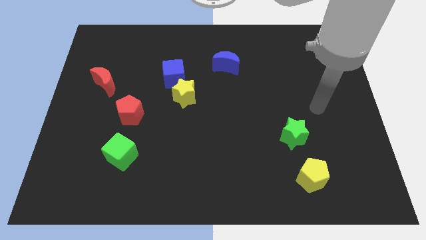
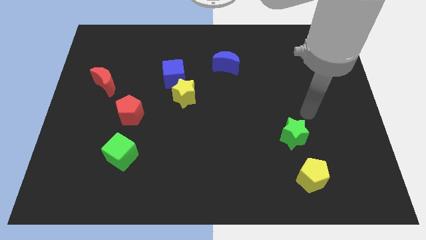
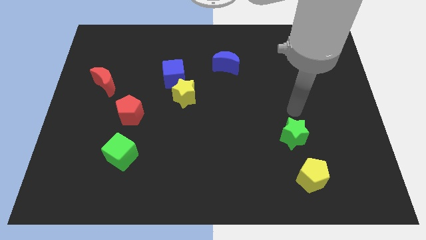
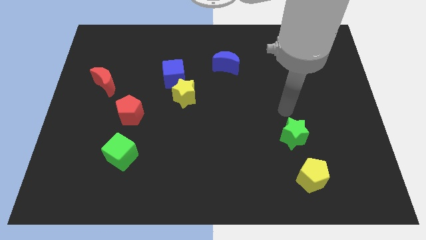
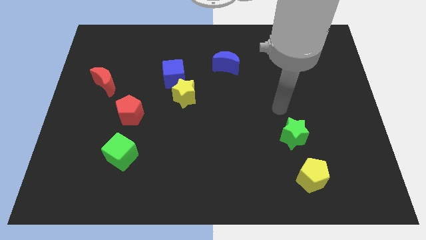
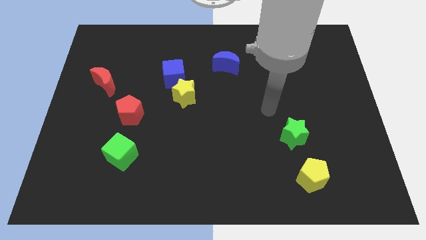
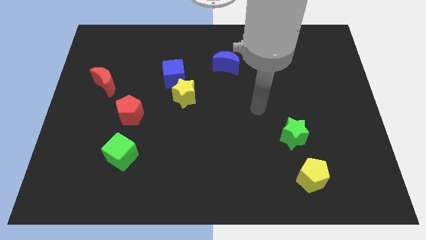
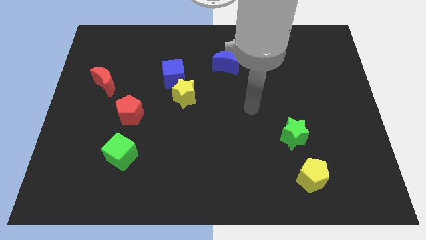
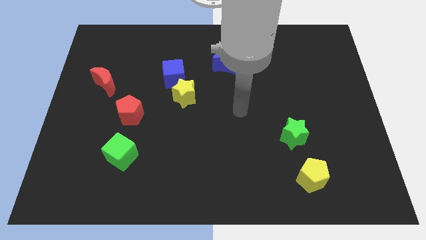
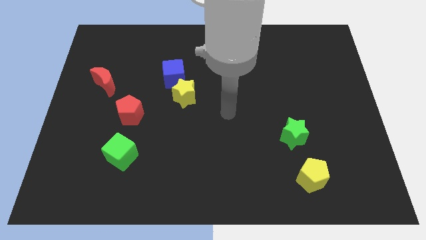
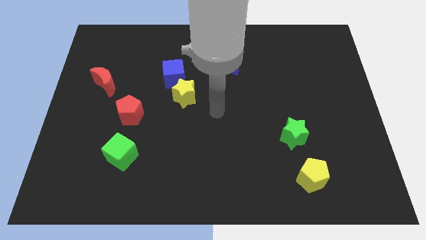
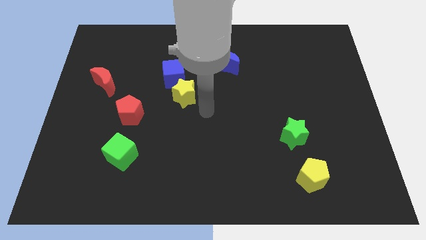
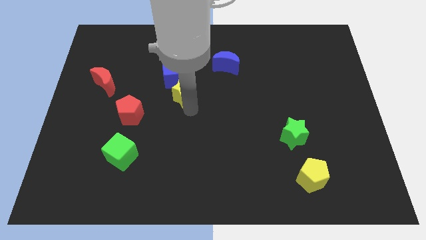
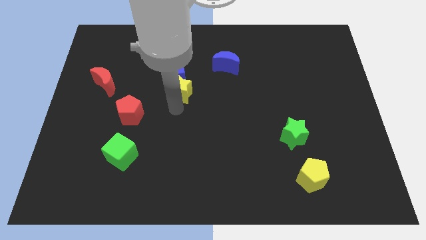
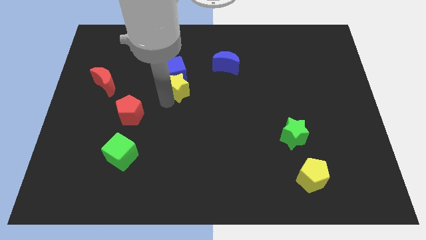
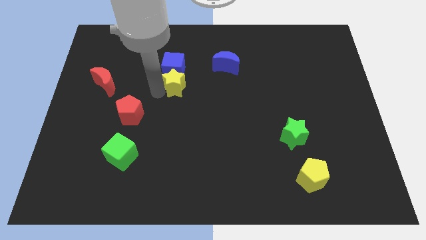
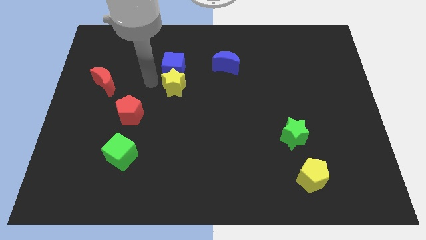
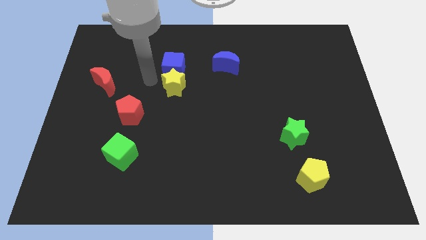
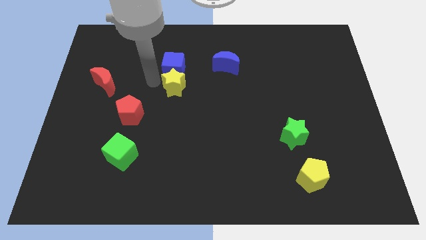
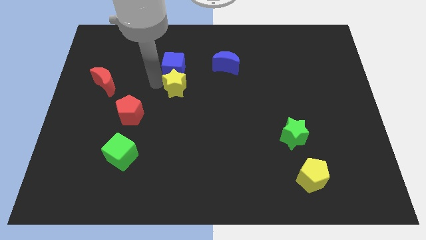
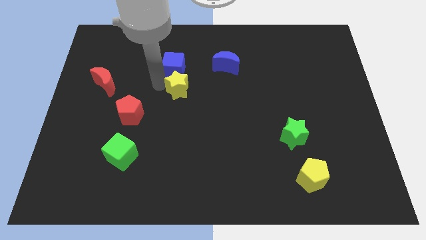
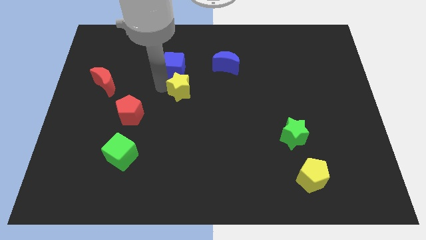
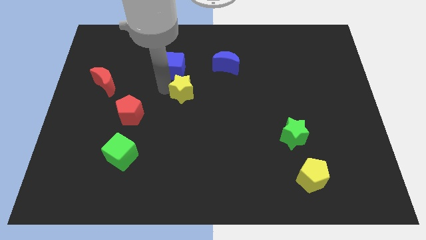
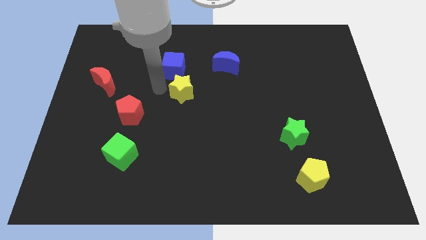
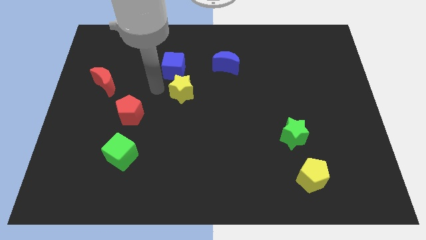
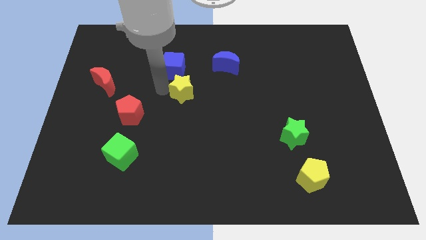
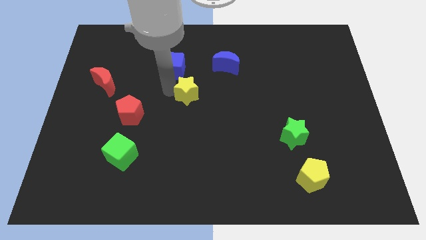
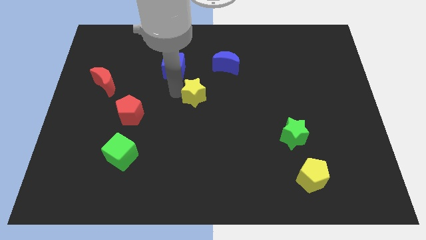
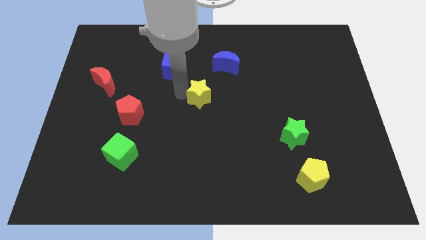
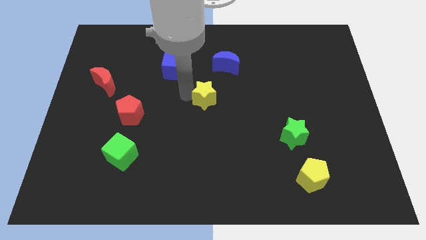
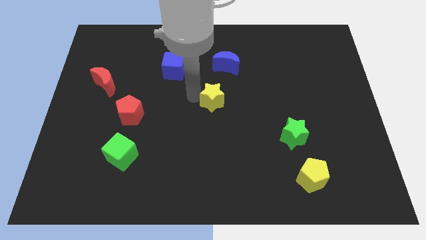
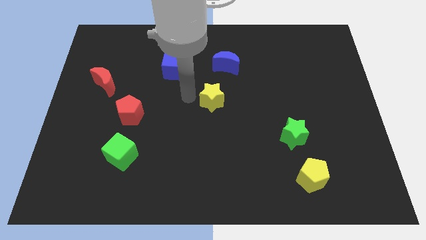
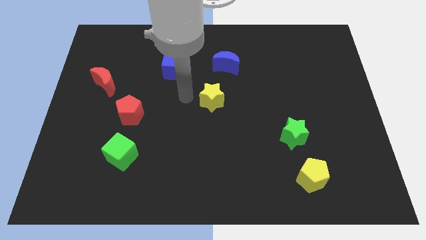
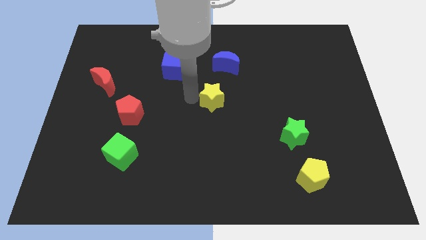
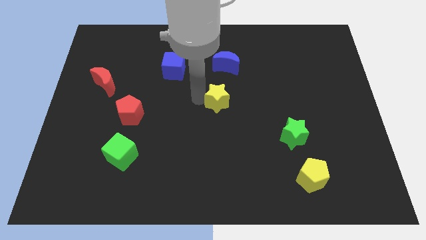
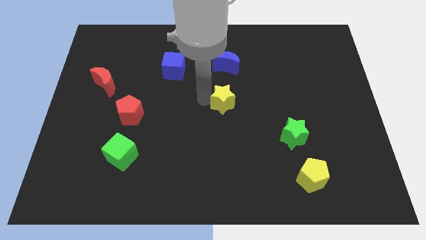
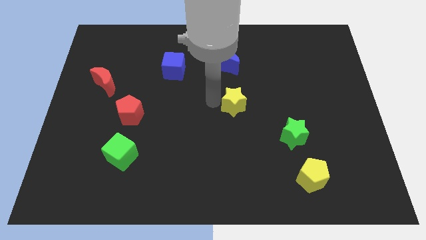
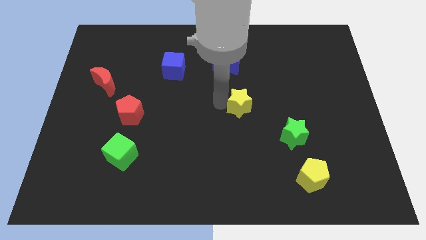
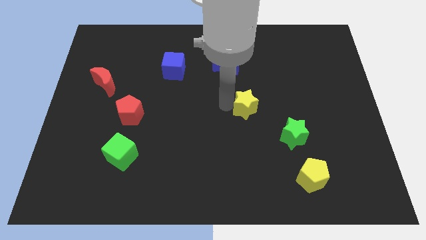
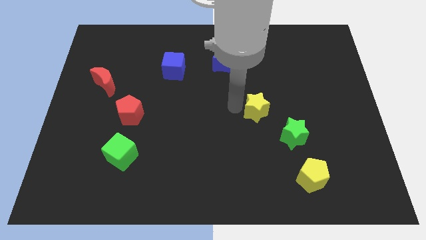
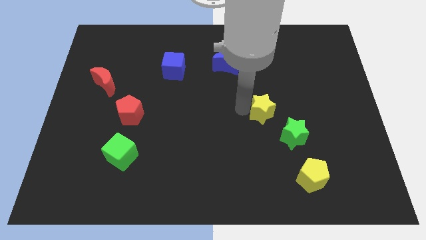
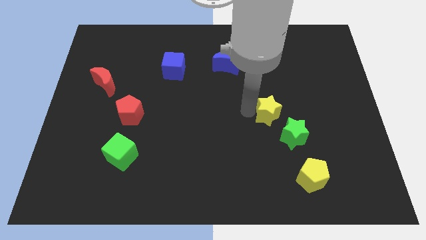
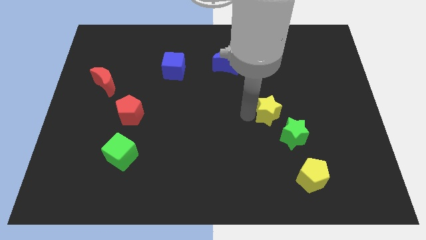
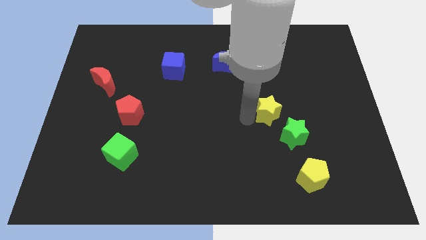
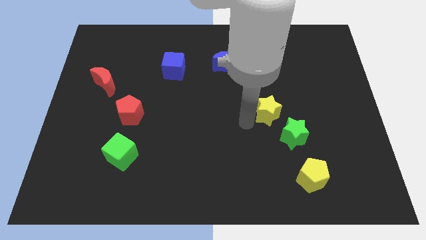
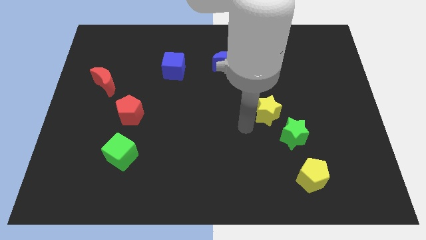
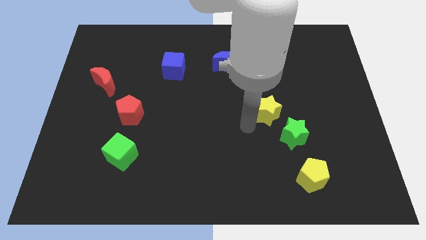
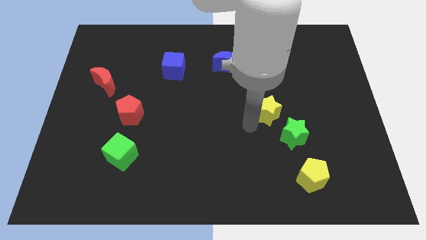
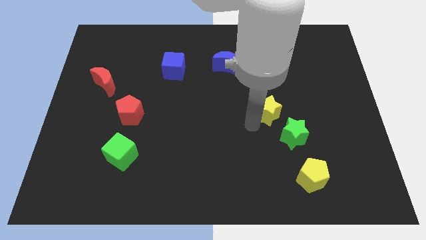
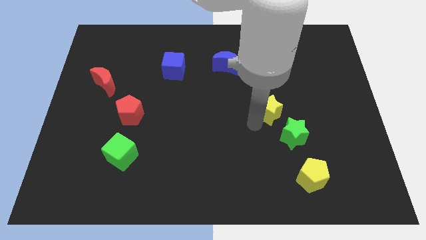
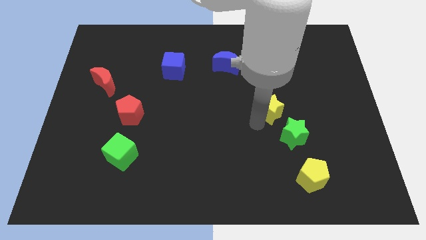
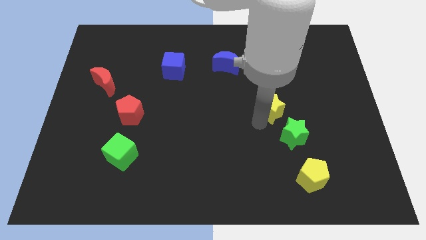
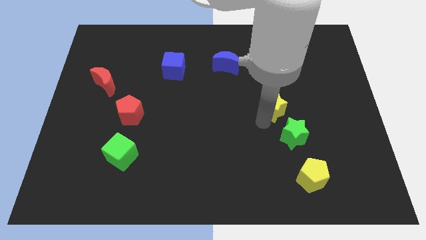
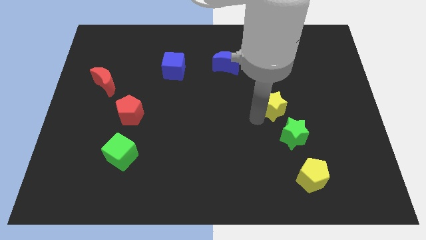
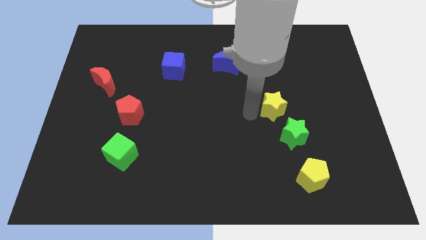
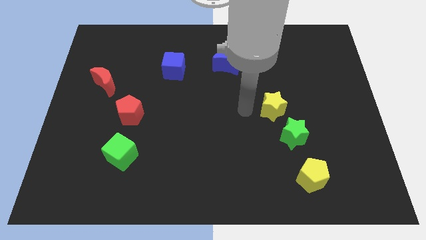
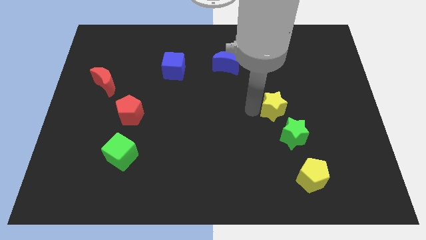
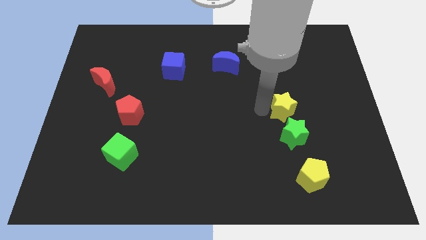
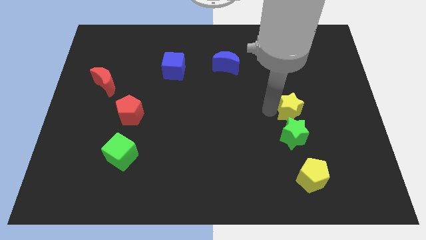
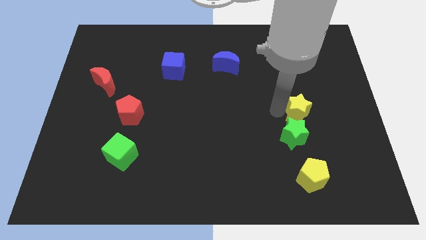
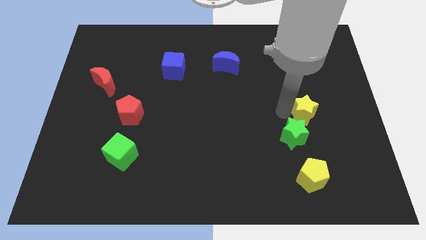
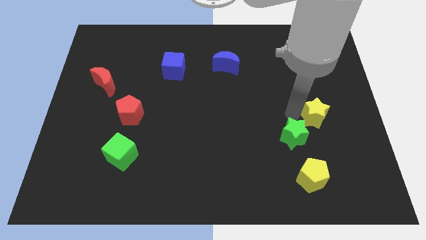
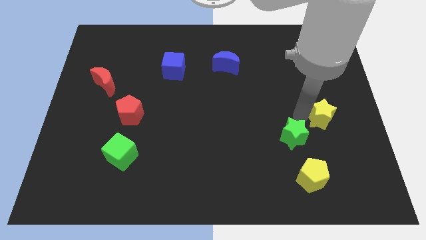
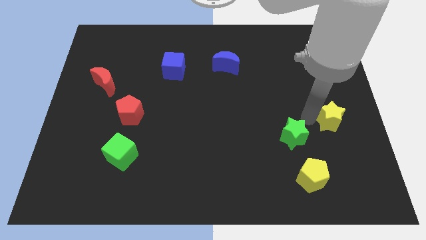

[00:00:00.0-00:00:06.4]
put the yellow star to the right side
